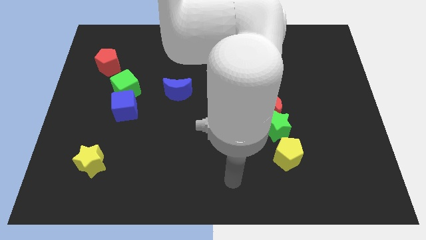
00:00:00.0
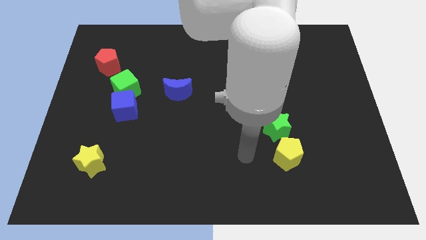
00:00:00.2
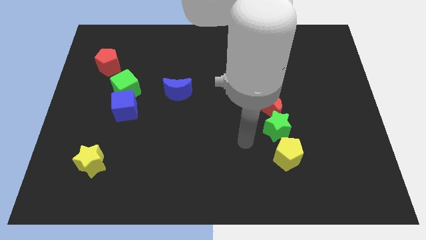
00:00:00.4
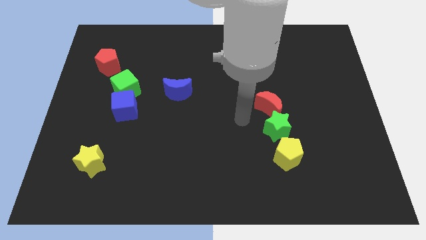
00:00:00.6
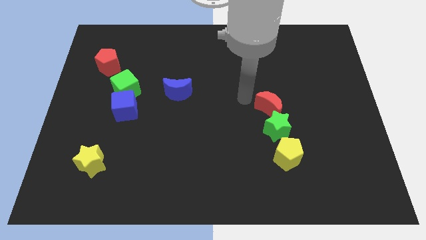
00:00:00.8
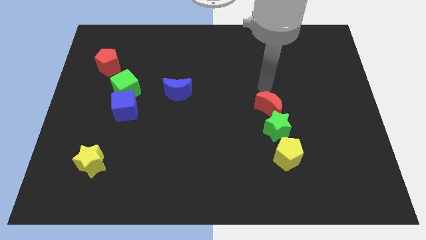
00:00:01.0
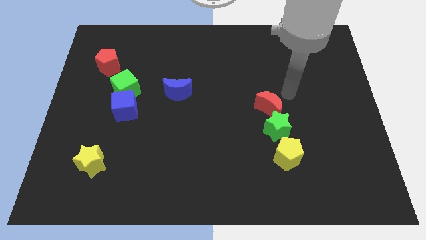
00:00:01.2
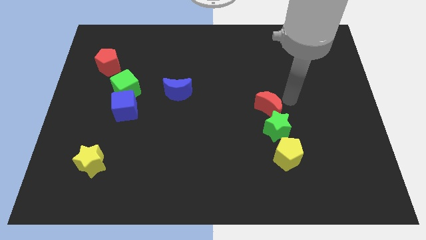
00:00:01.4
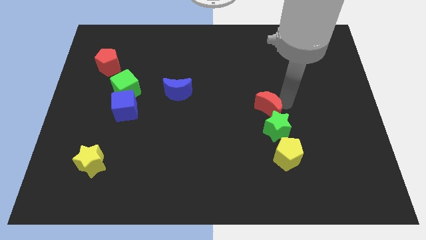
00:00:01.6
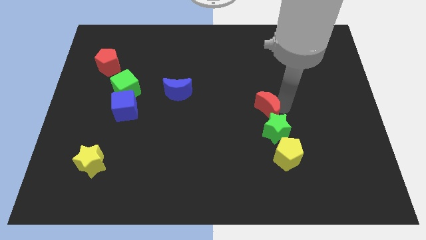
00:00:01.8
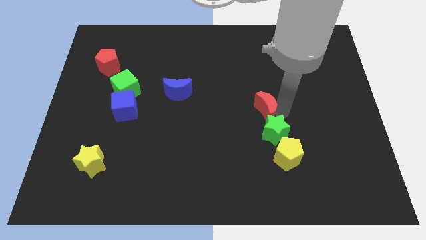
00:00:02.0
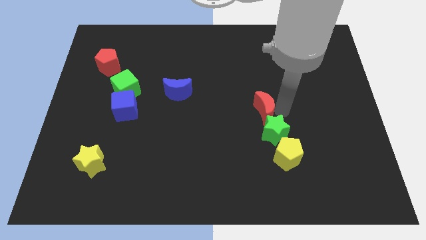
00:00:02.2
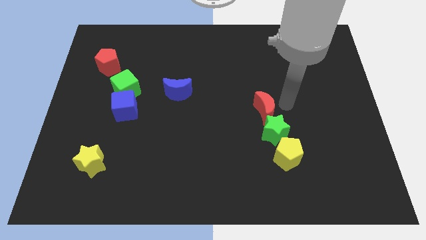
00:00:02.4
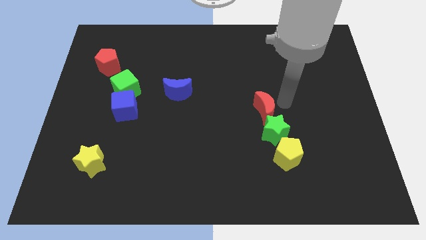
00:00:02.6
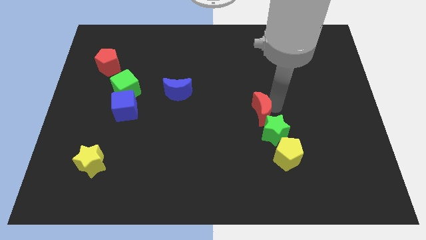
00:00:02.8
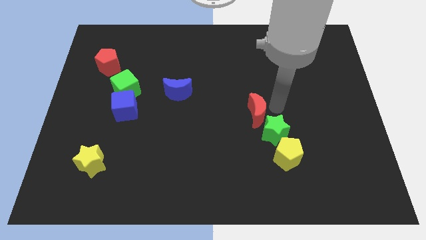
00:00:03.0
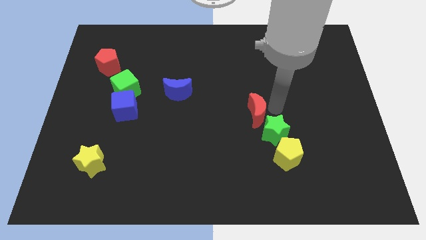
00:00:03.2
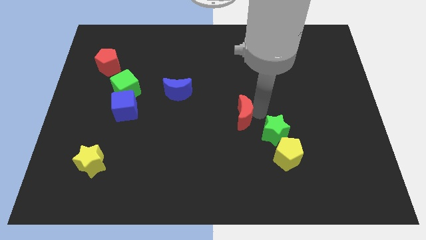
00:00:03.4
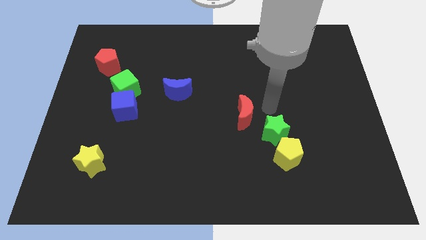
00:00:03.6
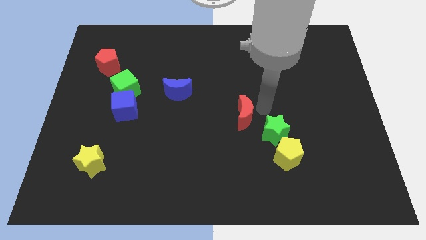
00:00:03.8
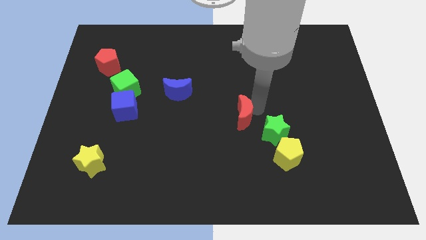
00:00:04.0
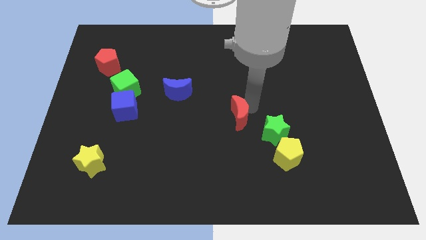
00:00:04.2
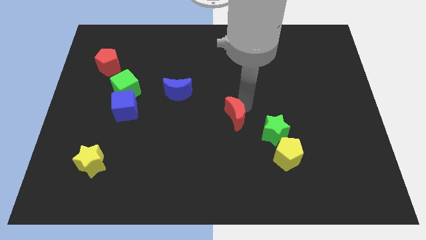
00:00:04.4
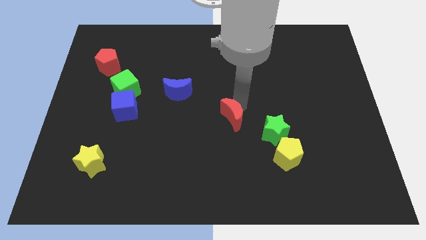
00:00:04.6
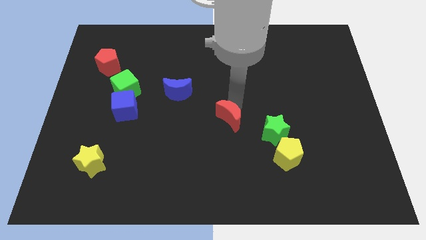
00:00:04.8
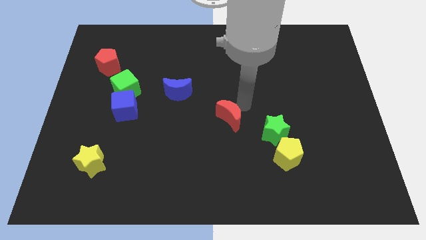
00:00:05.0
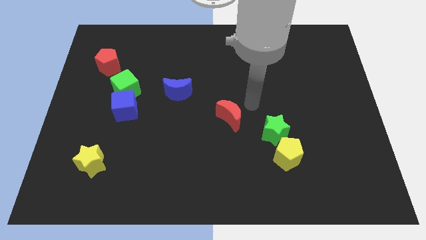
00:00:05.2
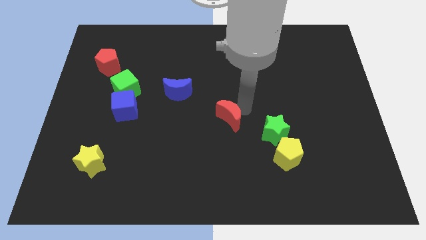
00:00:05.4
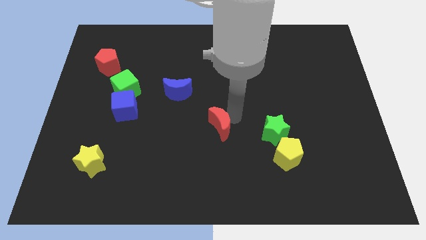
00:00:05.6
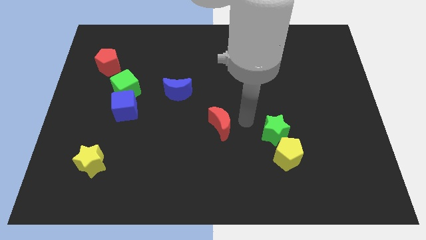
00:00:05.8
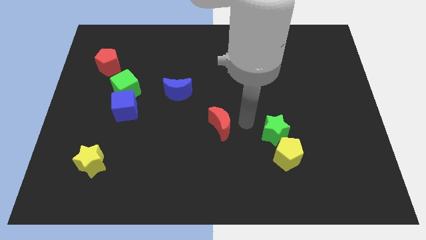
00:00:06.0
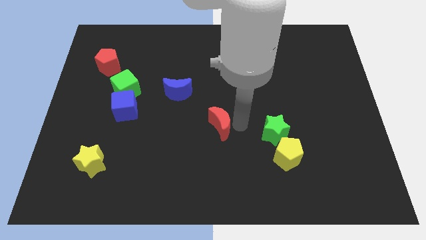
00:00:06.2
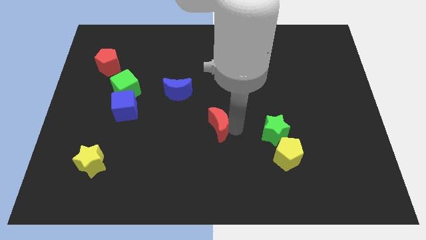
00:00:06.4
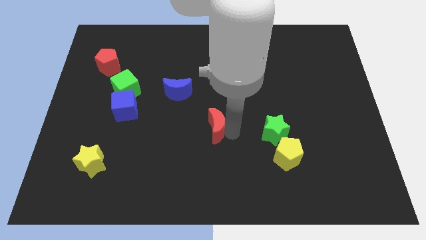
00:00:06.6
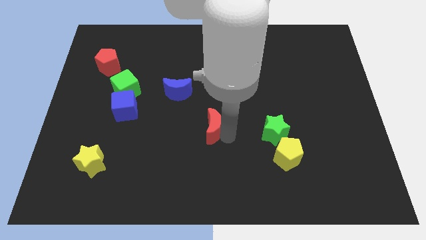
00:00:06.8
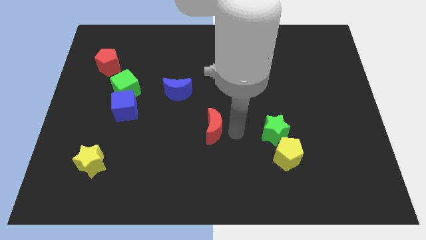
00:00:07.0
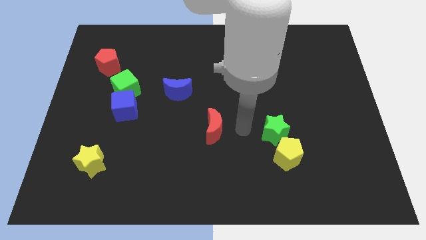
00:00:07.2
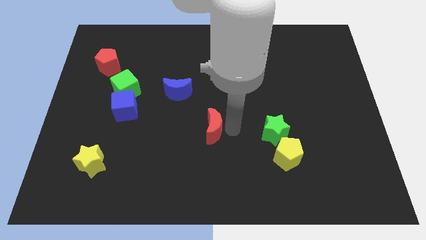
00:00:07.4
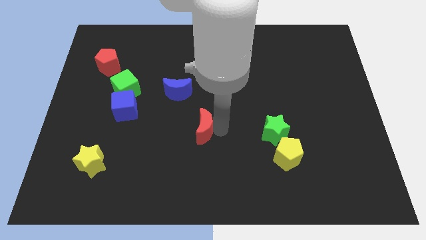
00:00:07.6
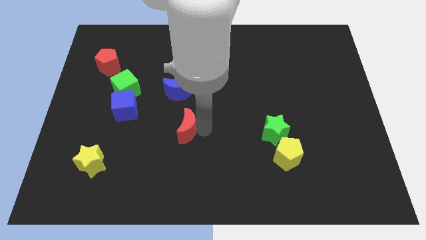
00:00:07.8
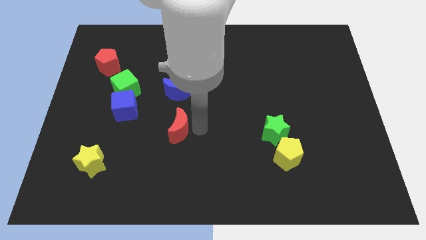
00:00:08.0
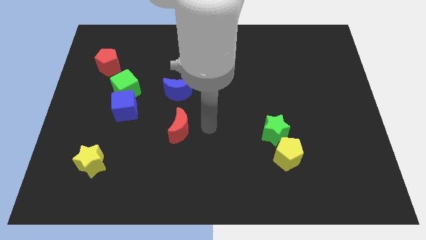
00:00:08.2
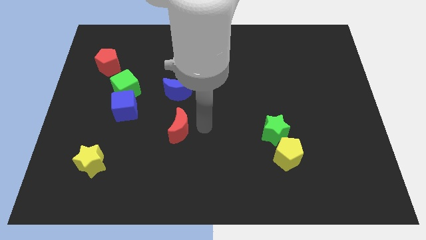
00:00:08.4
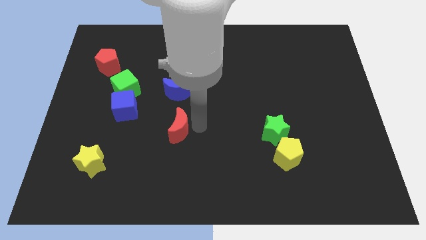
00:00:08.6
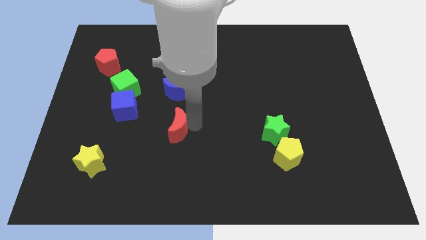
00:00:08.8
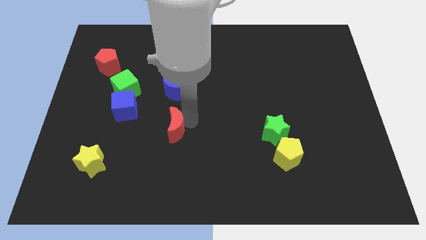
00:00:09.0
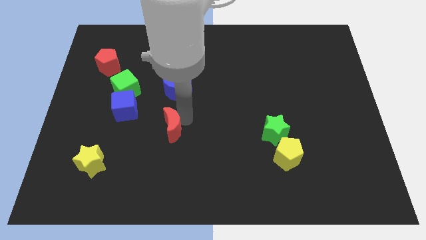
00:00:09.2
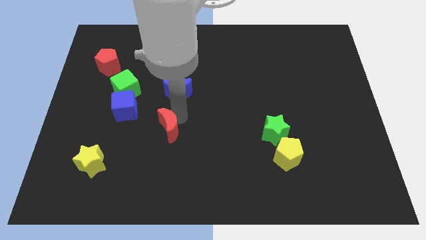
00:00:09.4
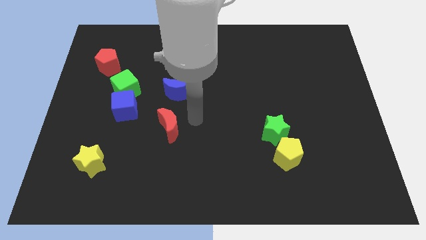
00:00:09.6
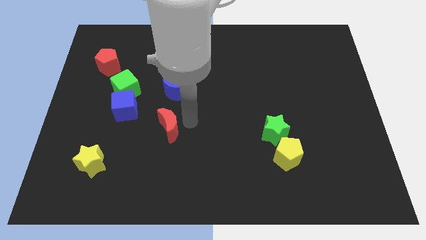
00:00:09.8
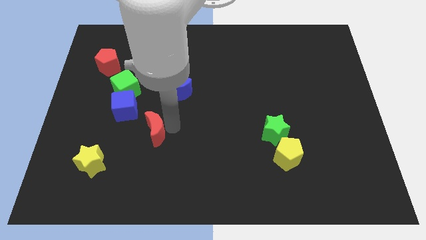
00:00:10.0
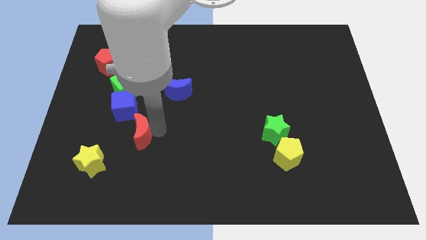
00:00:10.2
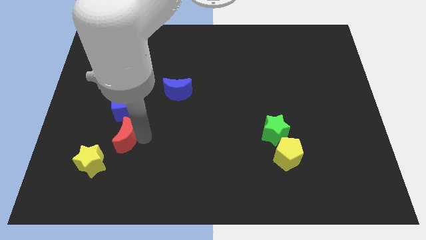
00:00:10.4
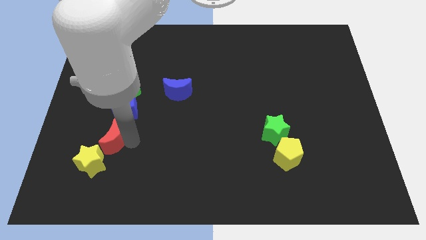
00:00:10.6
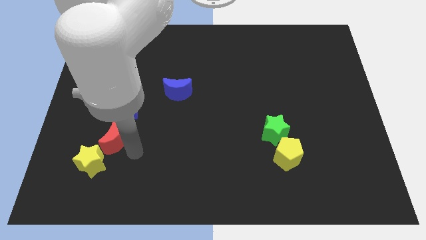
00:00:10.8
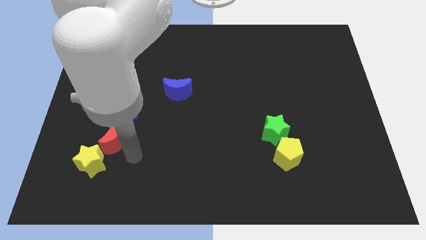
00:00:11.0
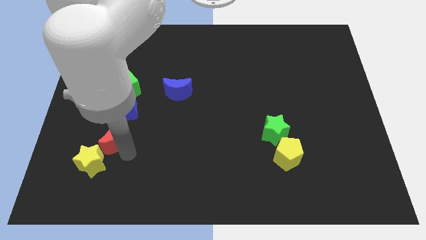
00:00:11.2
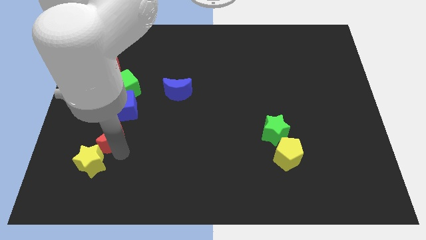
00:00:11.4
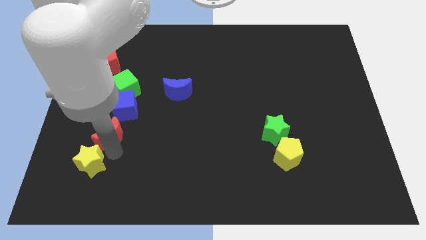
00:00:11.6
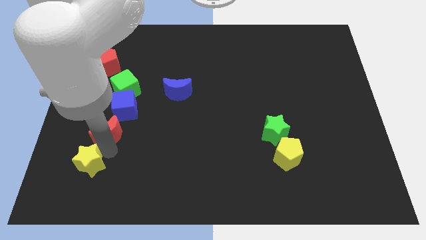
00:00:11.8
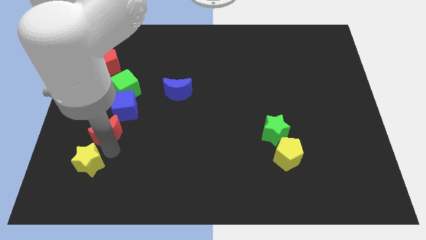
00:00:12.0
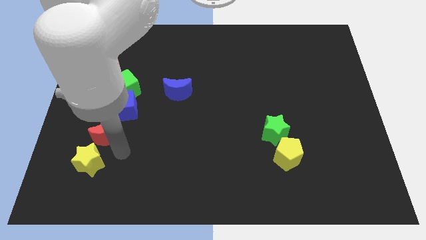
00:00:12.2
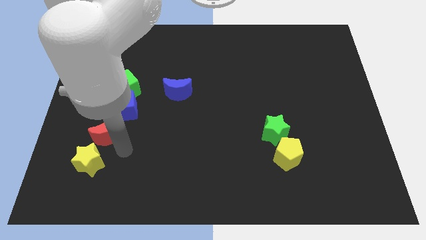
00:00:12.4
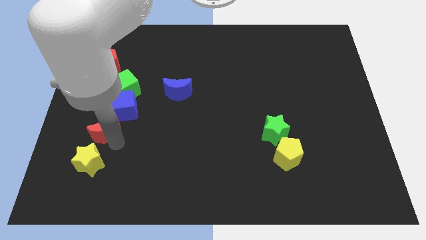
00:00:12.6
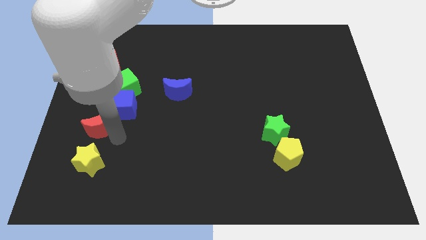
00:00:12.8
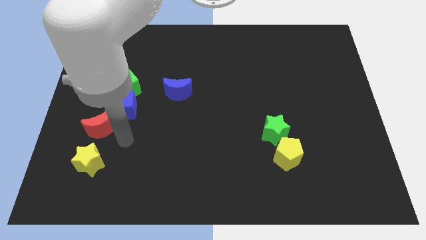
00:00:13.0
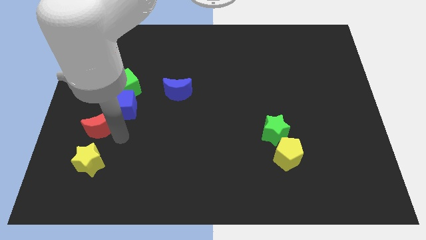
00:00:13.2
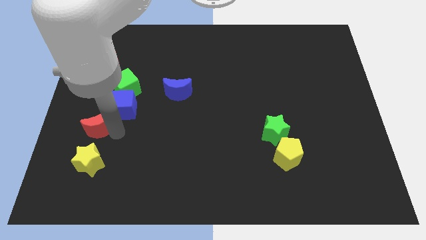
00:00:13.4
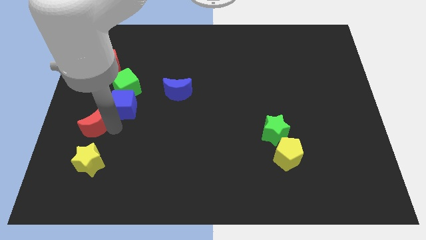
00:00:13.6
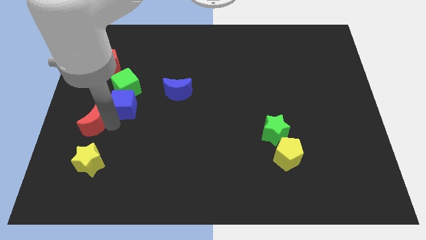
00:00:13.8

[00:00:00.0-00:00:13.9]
push the red moon to the left side
